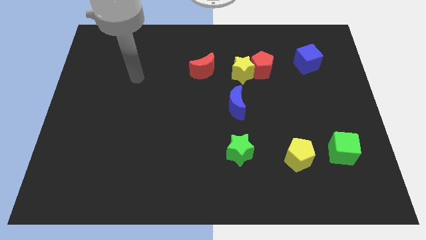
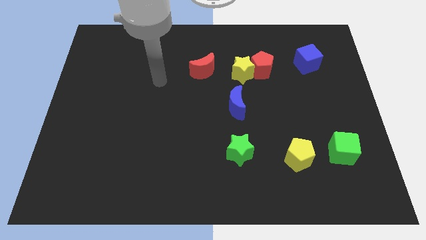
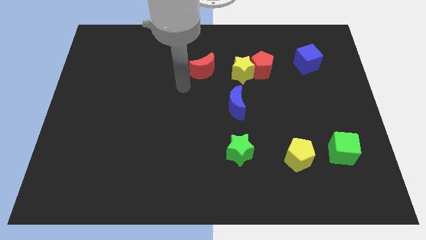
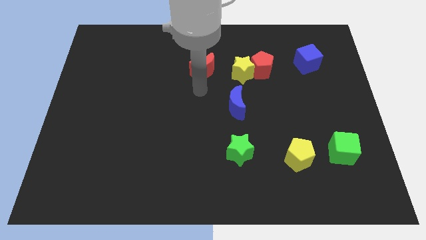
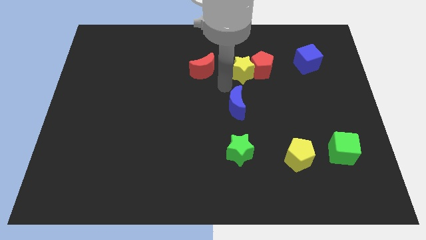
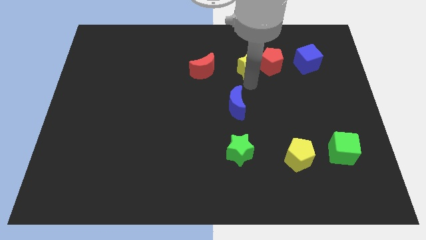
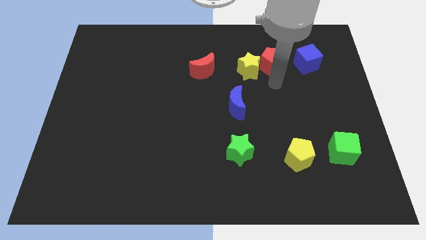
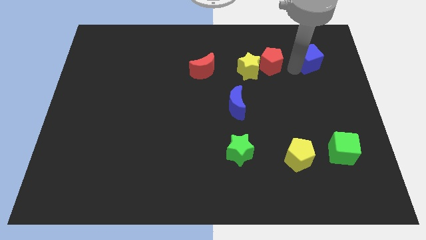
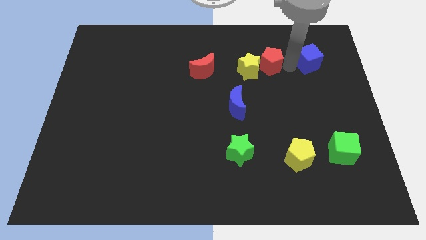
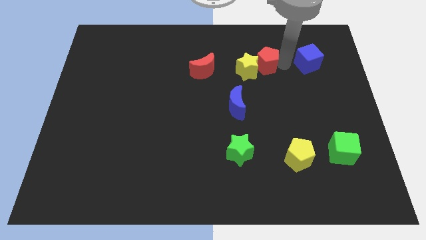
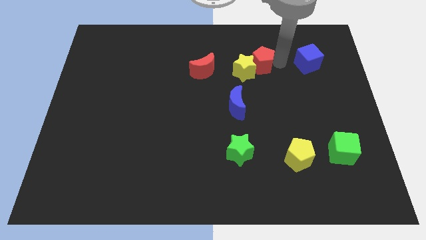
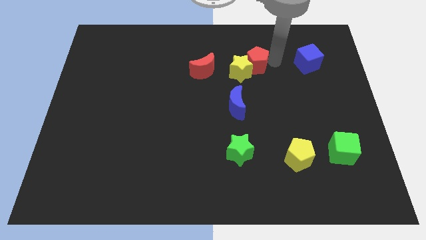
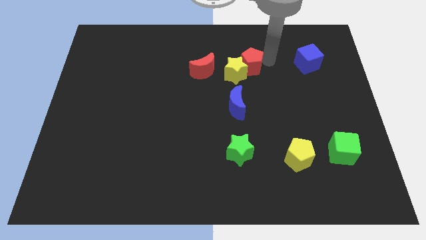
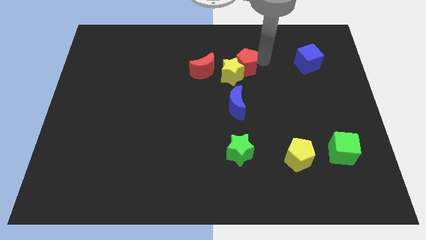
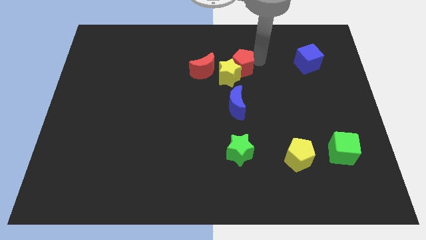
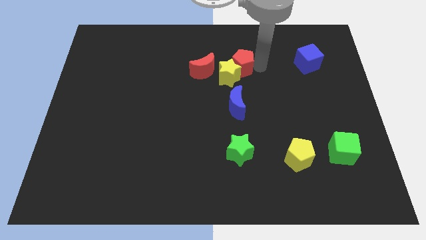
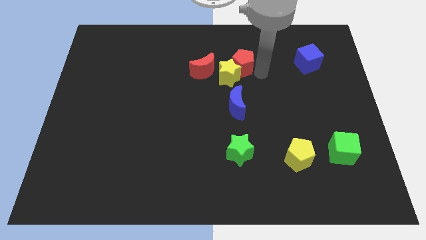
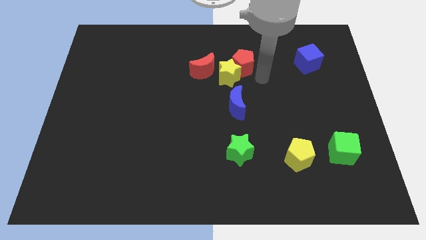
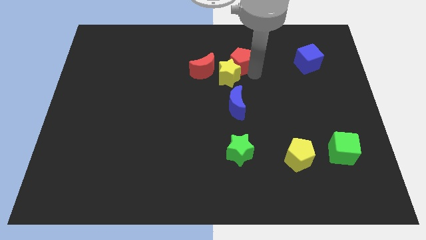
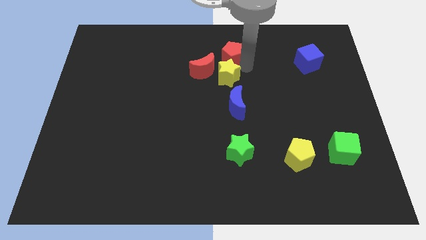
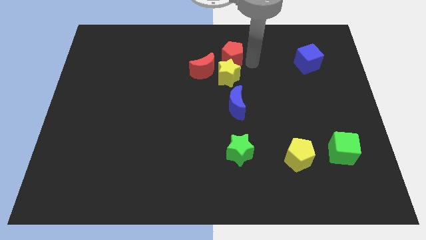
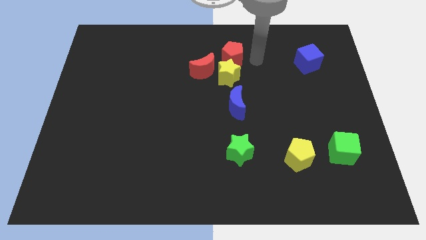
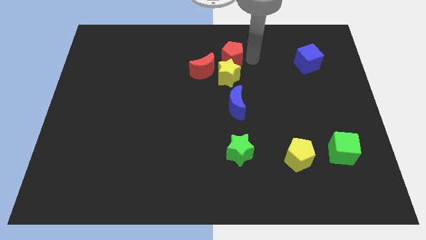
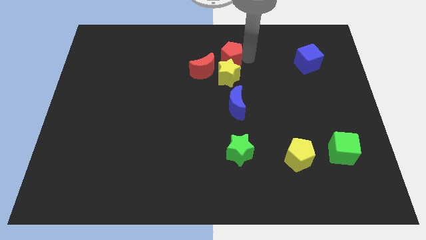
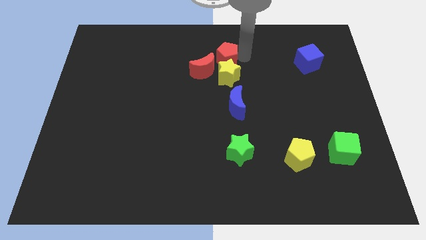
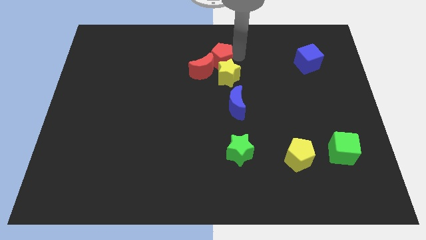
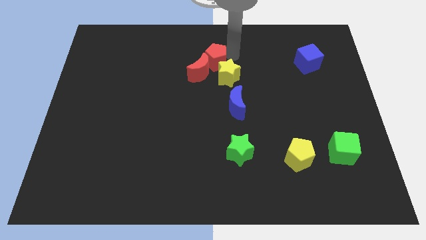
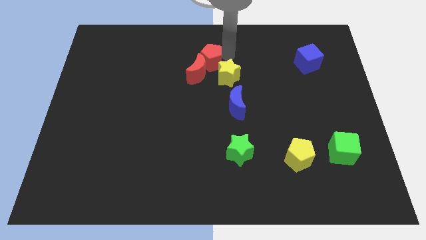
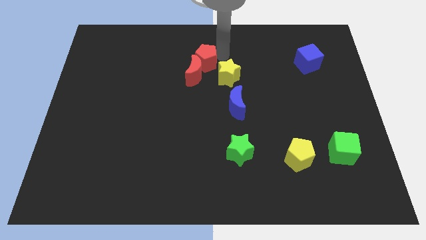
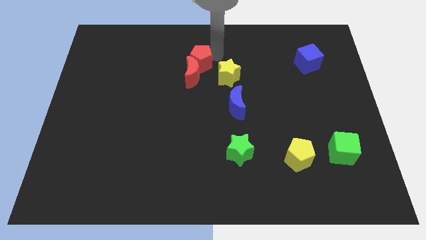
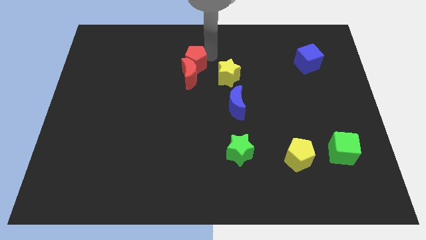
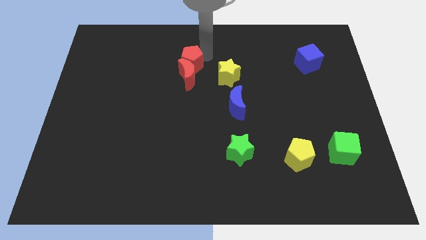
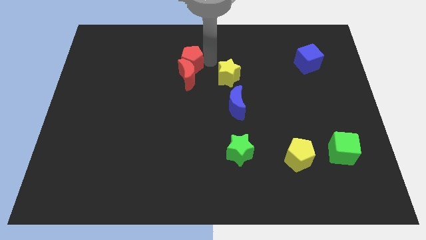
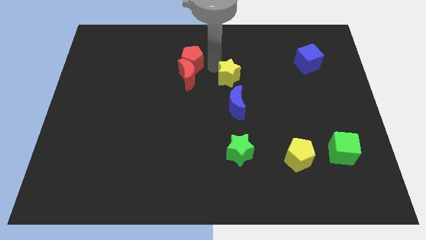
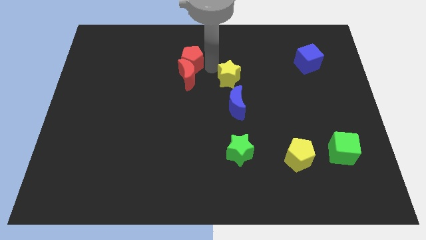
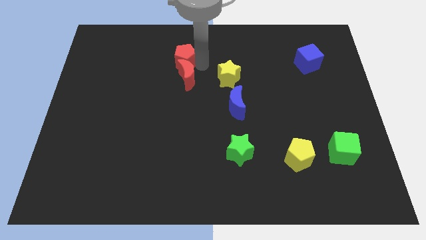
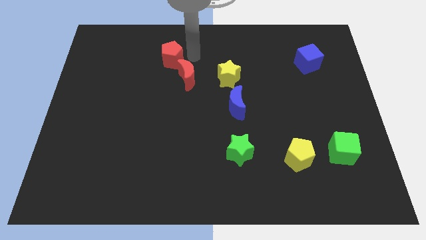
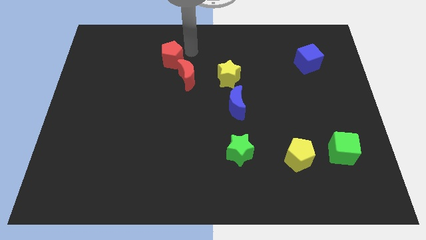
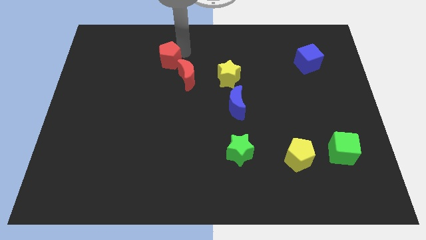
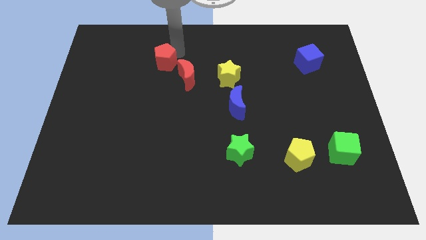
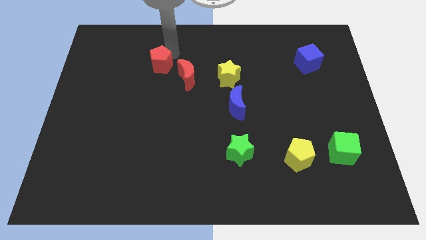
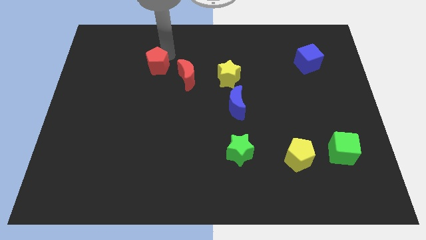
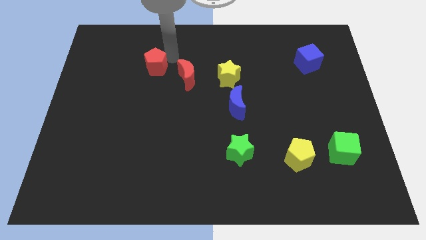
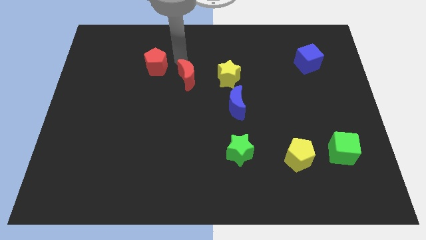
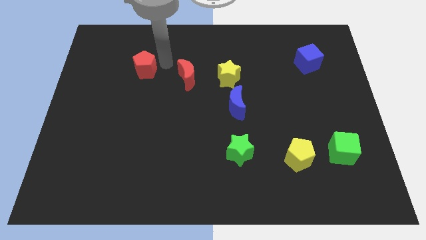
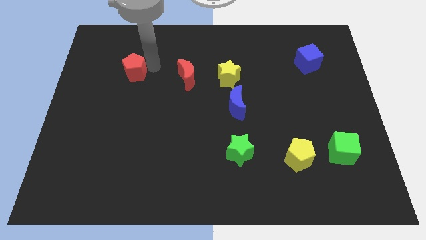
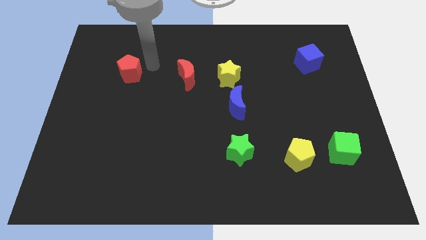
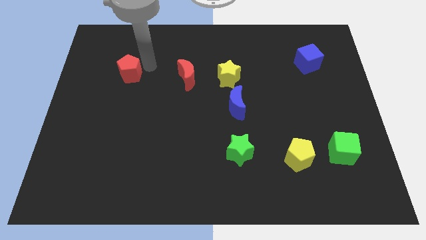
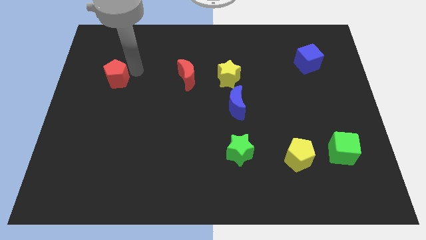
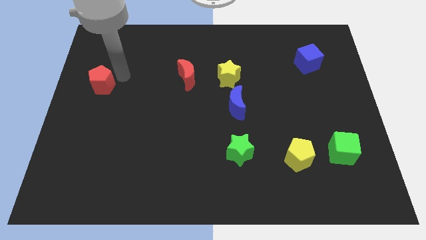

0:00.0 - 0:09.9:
slide the red pentagon to the left side of the board

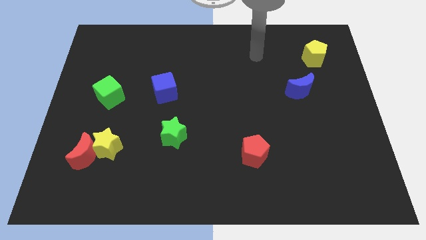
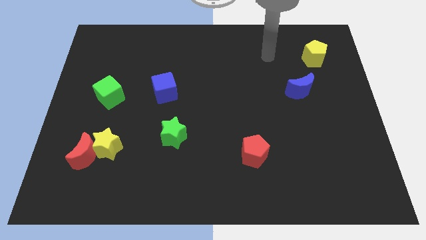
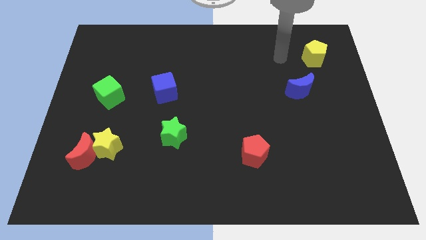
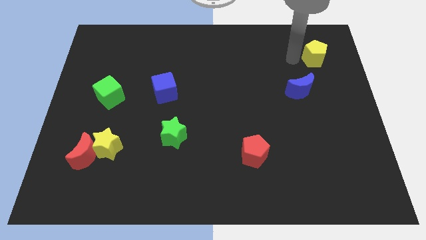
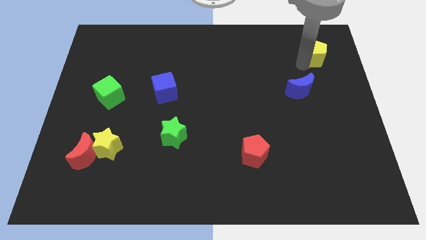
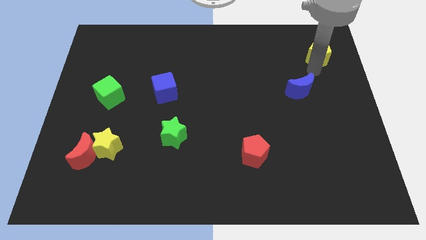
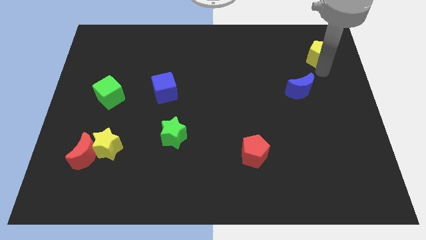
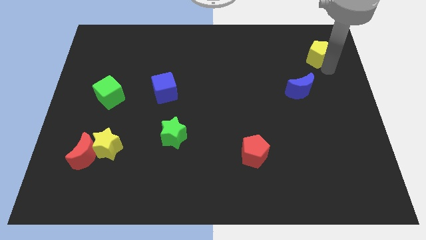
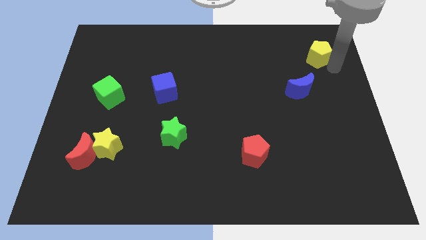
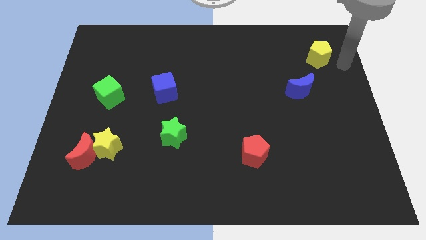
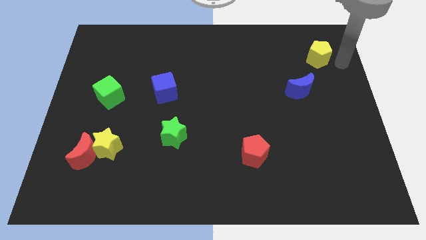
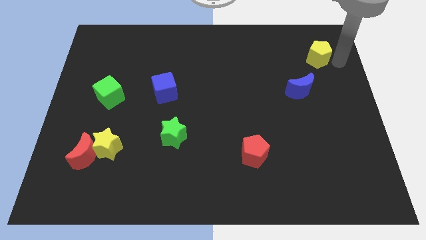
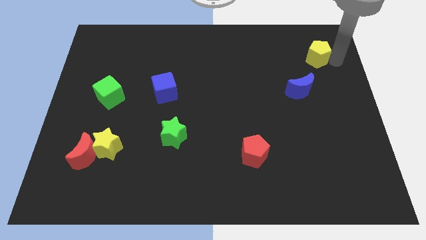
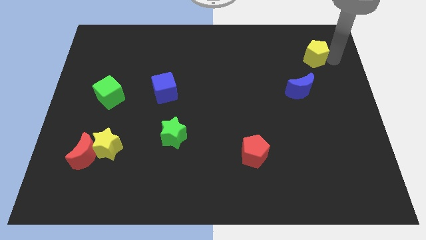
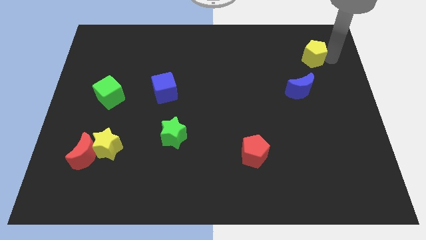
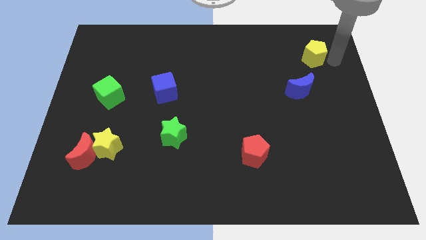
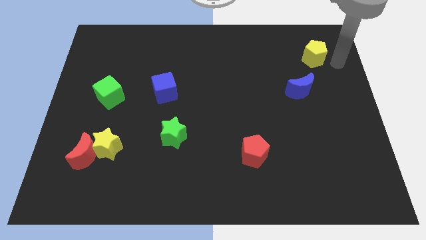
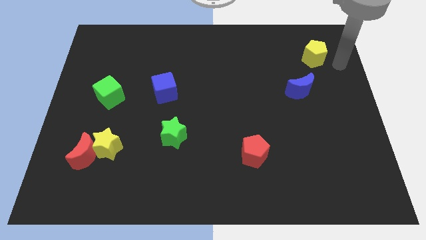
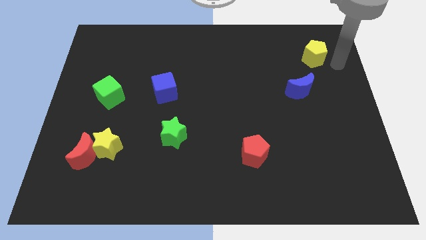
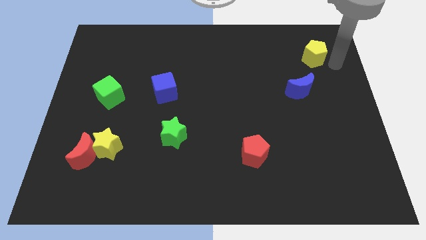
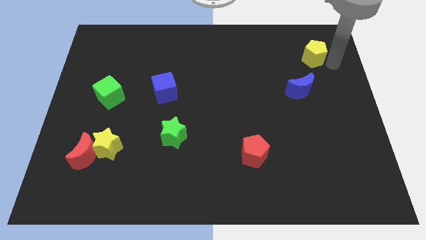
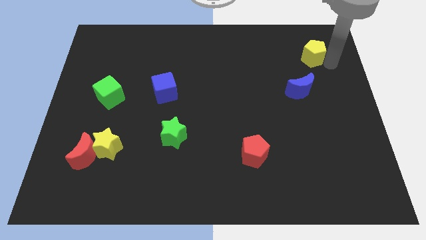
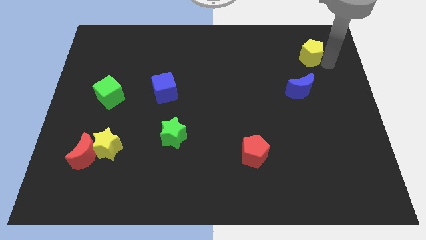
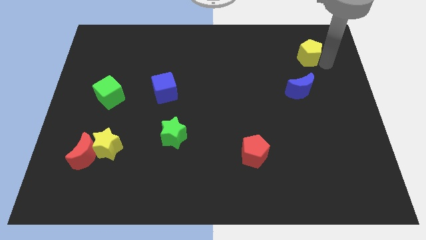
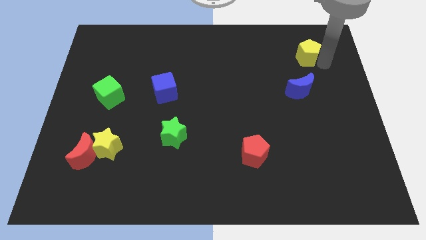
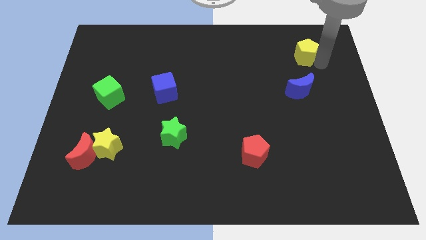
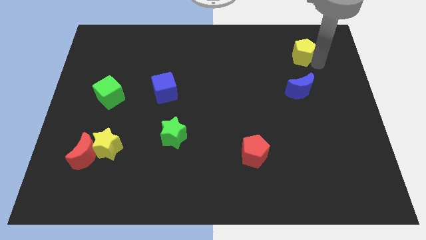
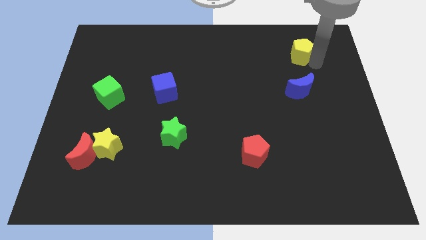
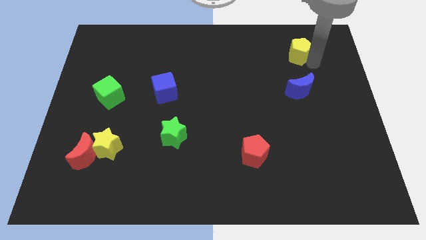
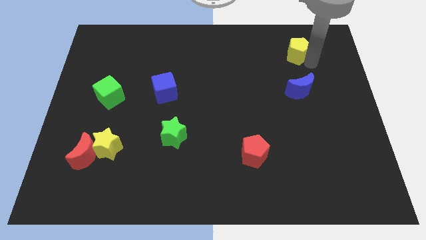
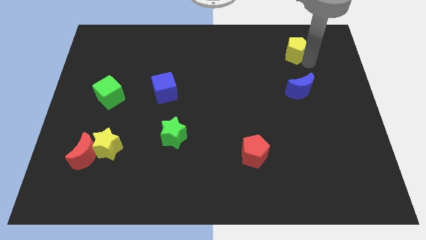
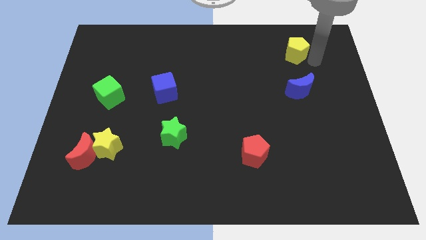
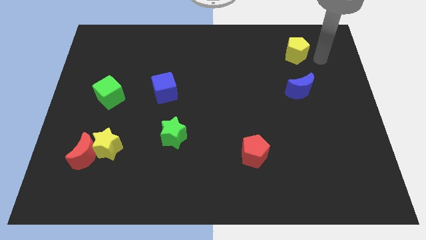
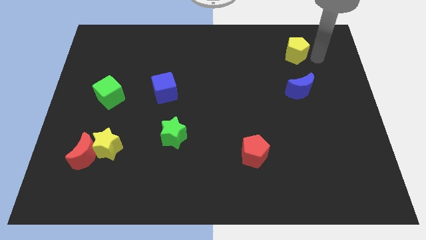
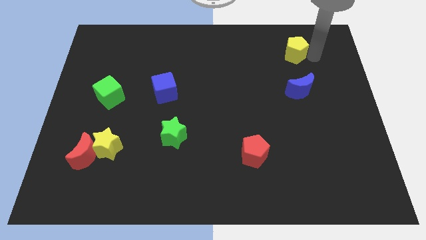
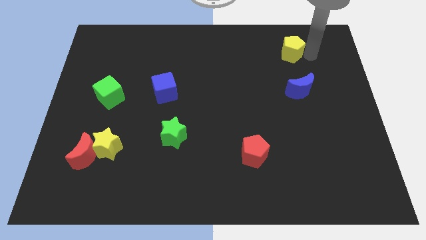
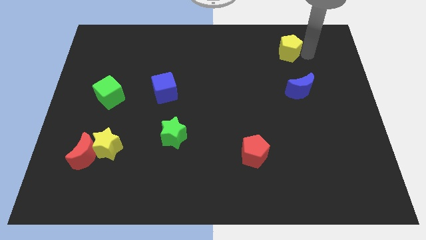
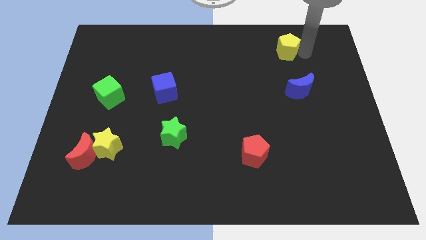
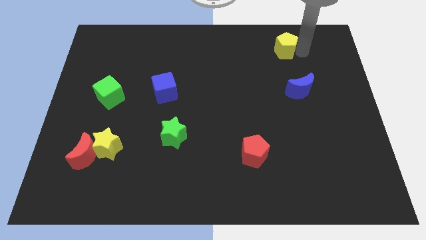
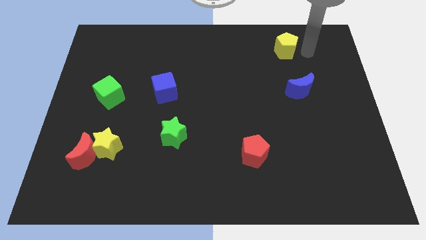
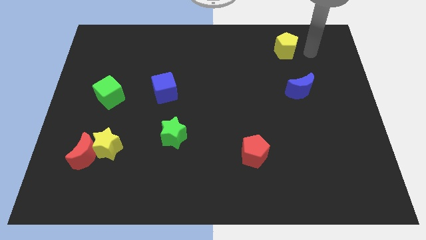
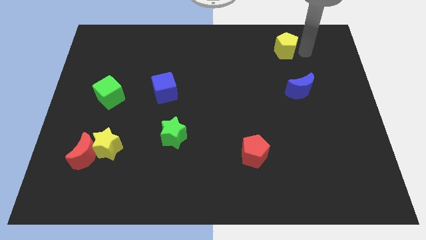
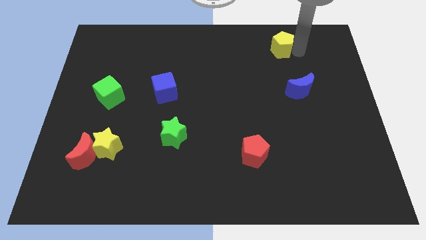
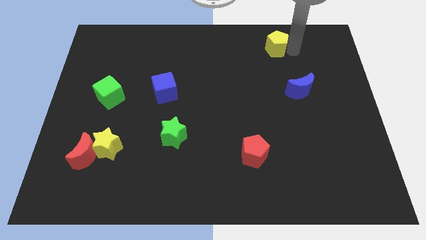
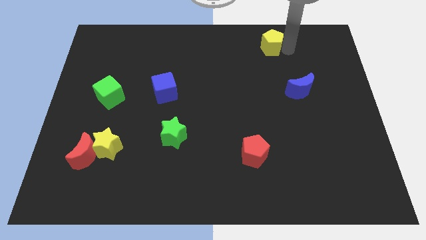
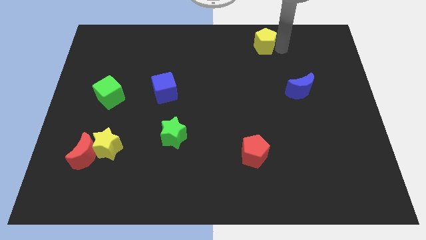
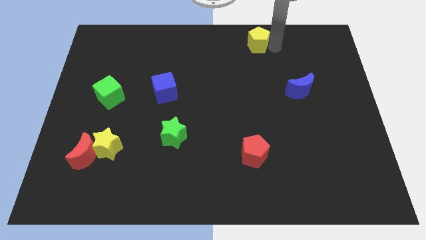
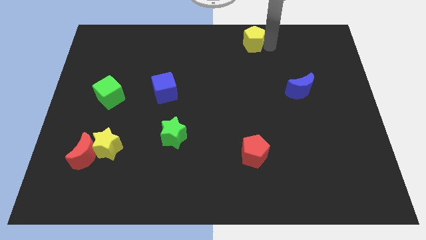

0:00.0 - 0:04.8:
slide the yellow pentagon to the towards your base
